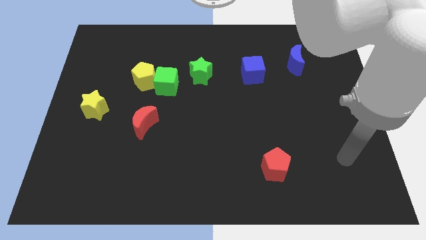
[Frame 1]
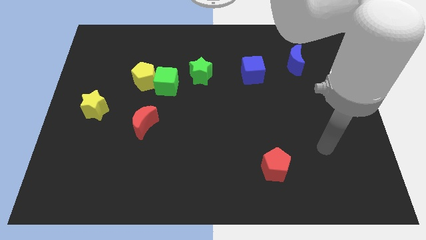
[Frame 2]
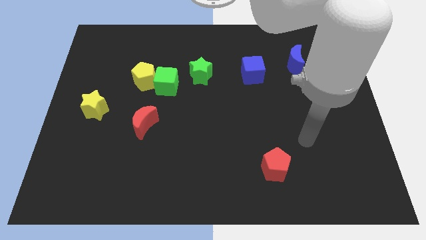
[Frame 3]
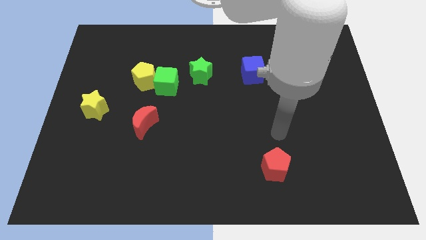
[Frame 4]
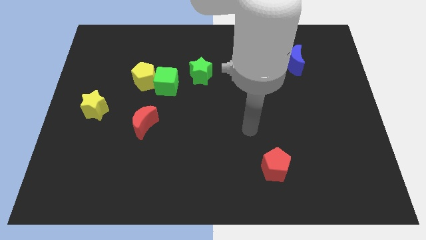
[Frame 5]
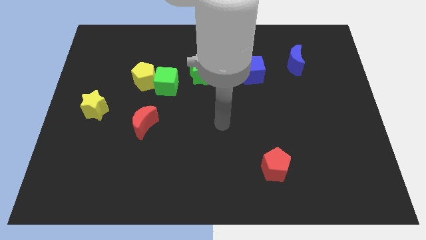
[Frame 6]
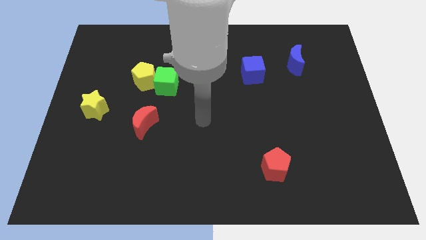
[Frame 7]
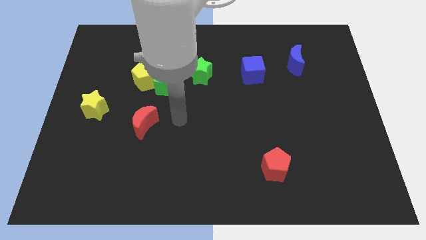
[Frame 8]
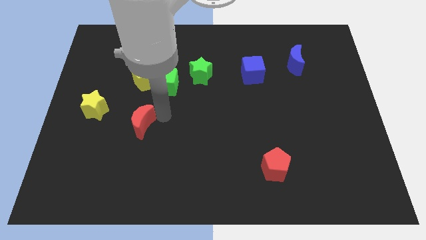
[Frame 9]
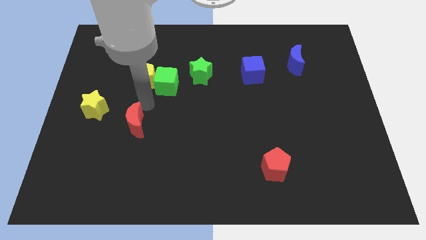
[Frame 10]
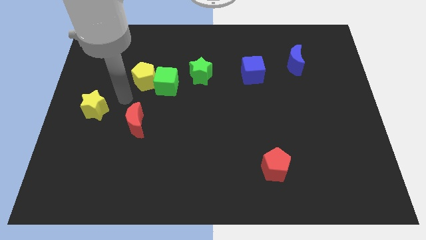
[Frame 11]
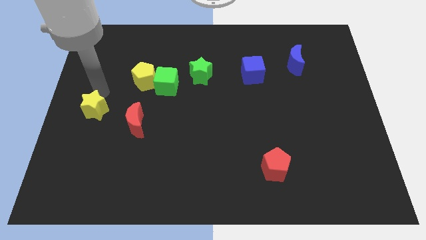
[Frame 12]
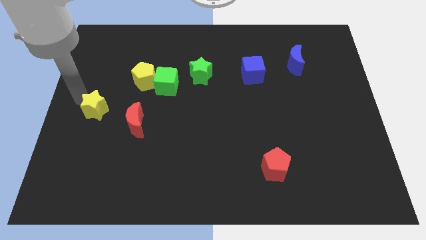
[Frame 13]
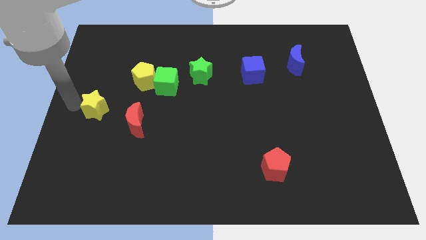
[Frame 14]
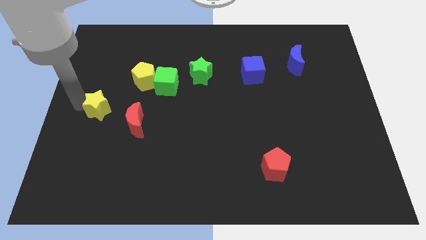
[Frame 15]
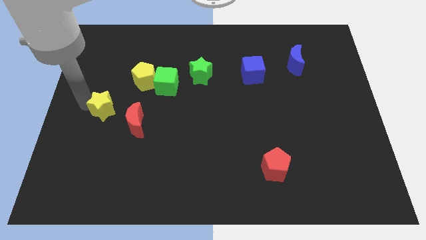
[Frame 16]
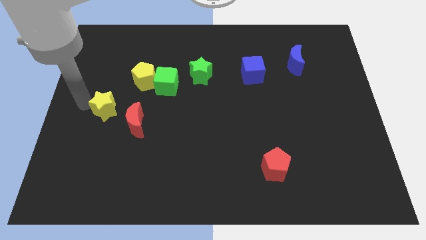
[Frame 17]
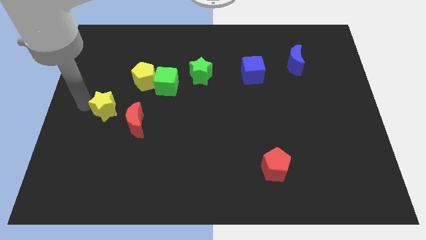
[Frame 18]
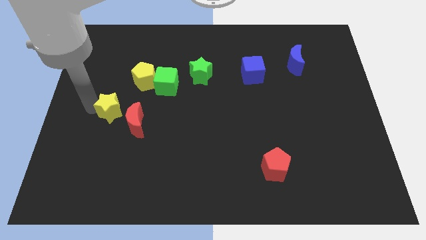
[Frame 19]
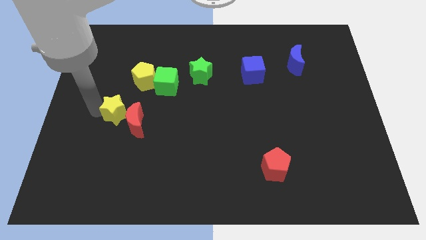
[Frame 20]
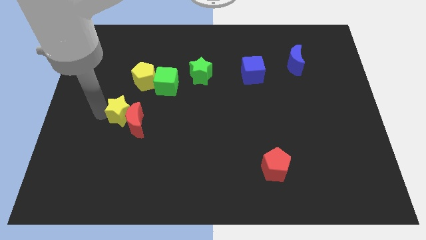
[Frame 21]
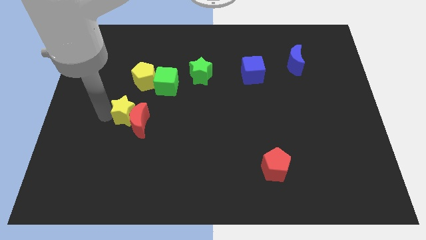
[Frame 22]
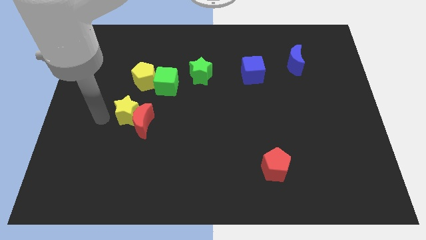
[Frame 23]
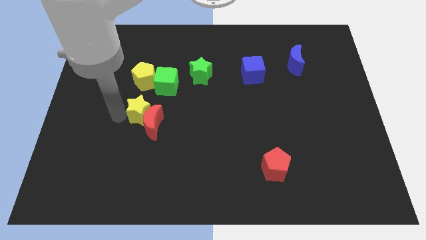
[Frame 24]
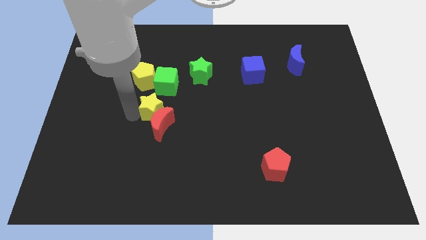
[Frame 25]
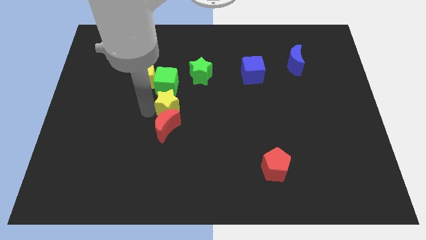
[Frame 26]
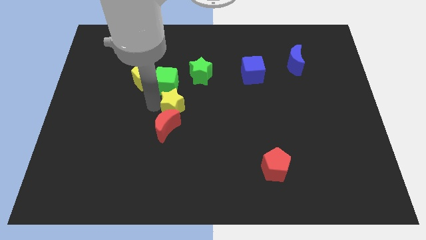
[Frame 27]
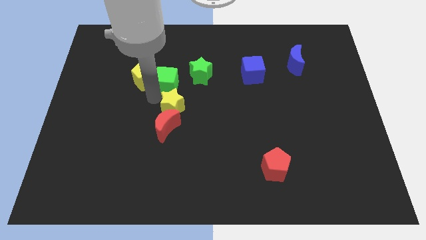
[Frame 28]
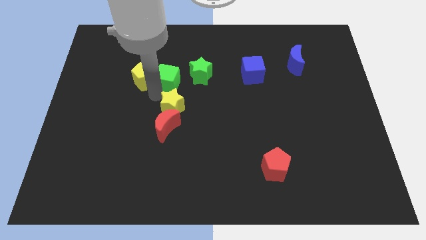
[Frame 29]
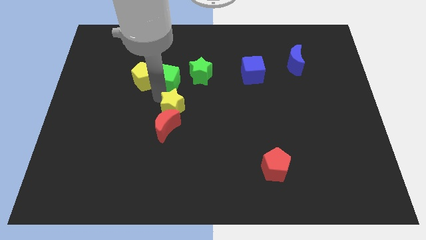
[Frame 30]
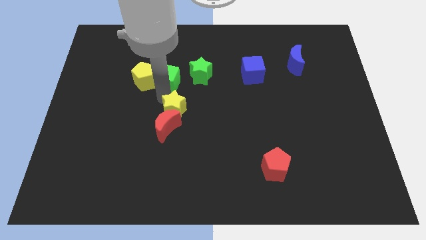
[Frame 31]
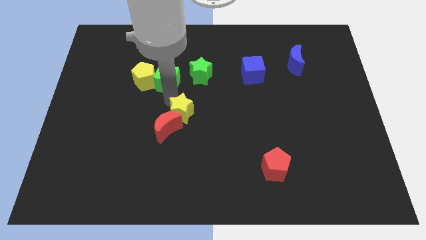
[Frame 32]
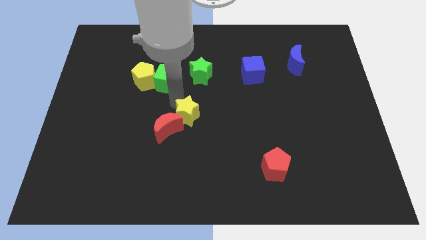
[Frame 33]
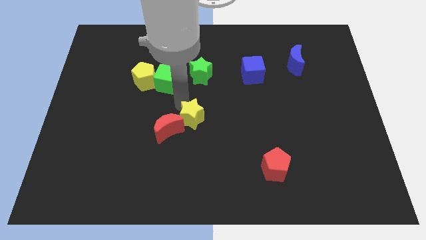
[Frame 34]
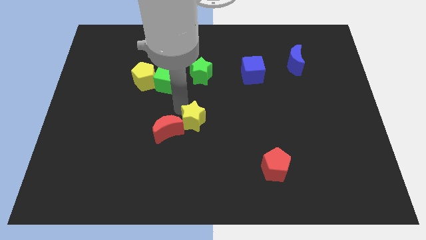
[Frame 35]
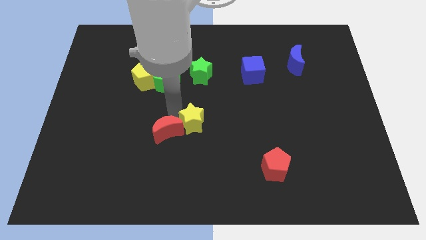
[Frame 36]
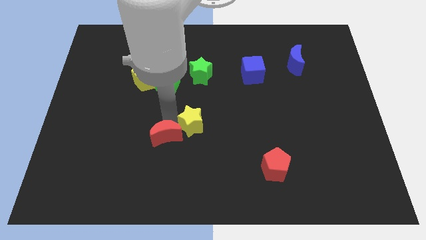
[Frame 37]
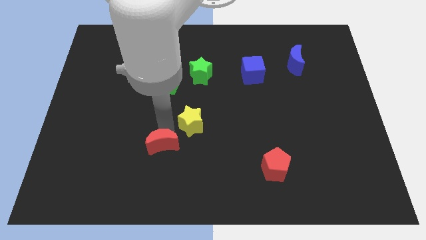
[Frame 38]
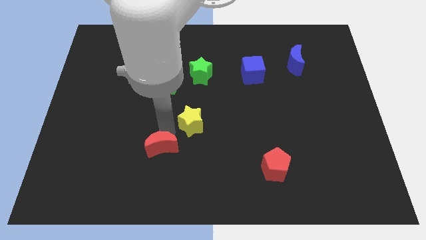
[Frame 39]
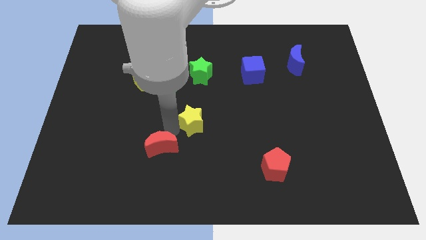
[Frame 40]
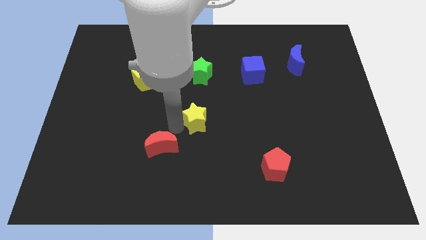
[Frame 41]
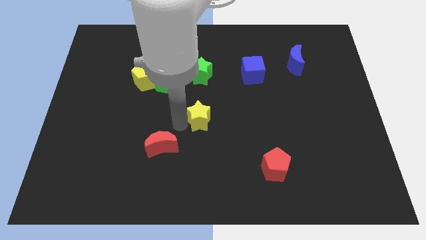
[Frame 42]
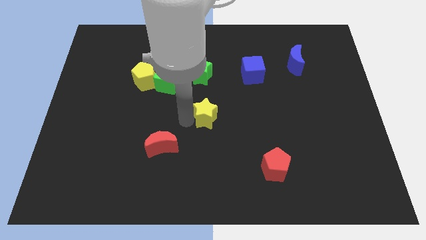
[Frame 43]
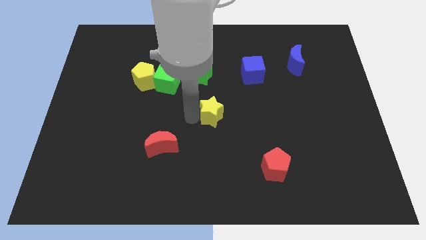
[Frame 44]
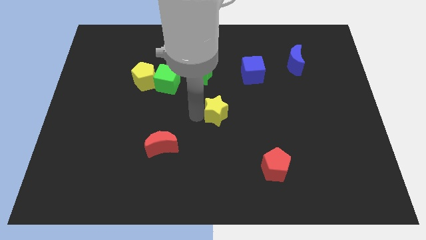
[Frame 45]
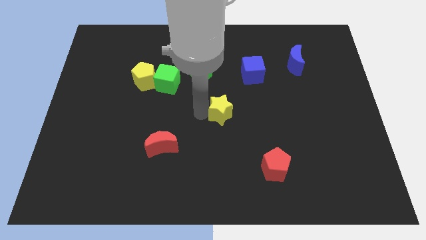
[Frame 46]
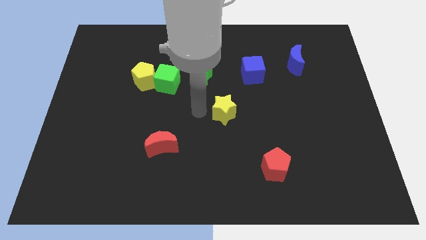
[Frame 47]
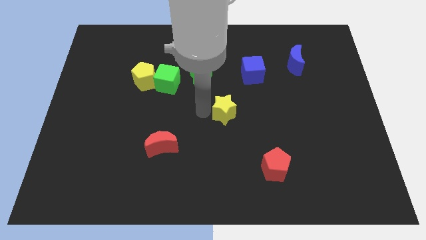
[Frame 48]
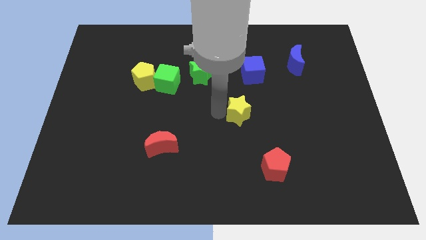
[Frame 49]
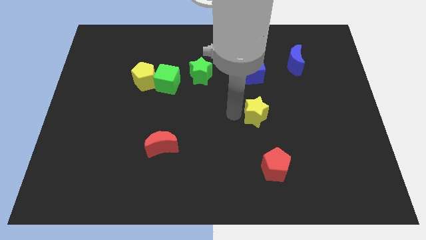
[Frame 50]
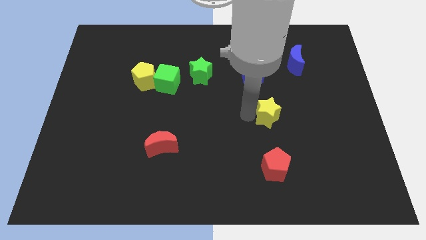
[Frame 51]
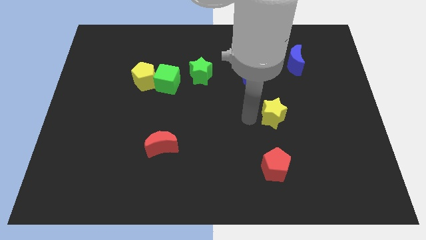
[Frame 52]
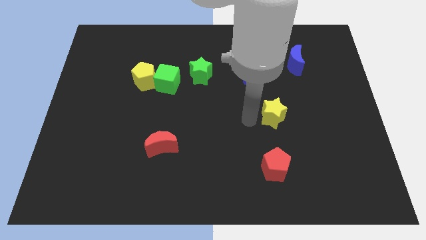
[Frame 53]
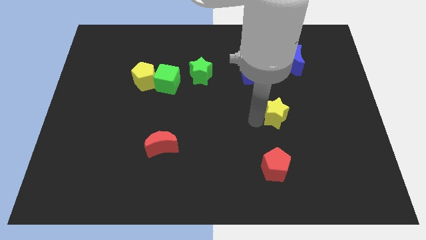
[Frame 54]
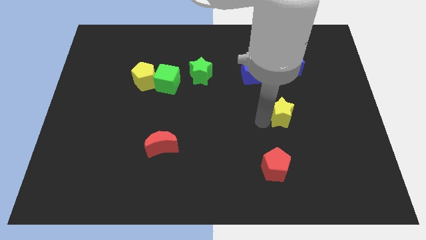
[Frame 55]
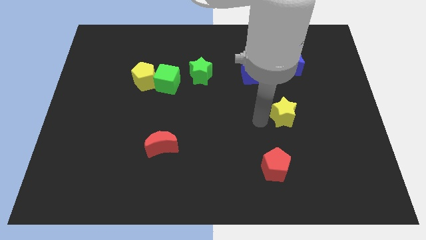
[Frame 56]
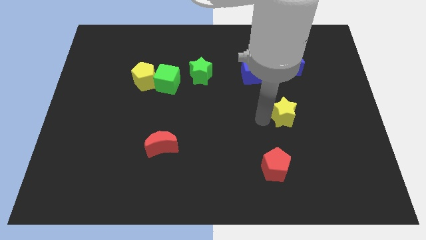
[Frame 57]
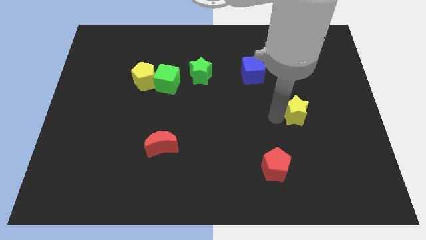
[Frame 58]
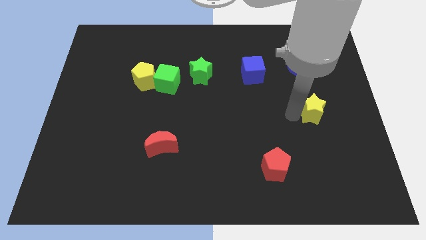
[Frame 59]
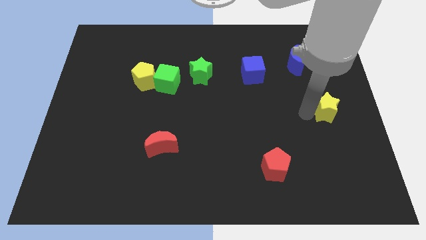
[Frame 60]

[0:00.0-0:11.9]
push the yellow star to the right side

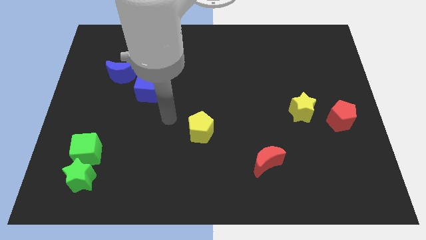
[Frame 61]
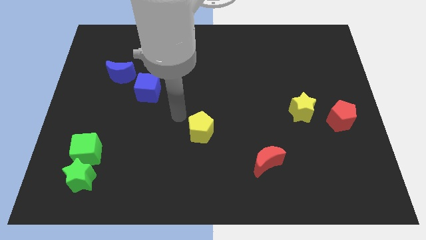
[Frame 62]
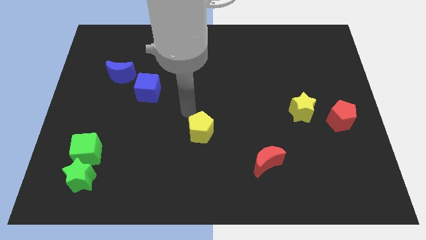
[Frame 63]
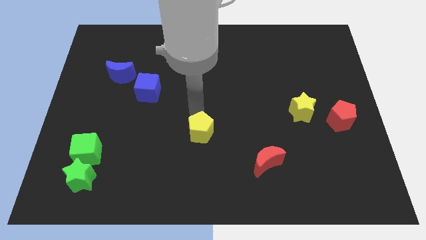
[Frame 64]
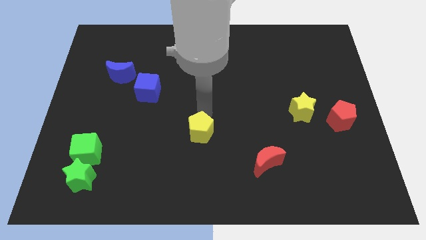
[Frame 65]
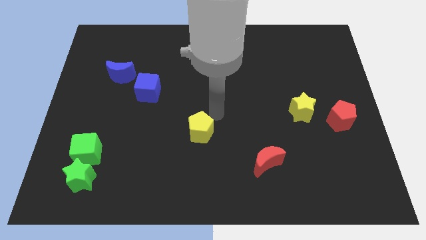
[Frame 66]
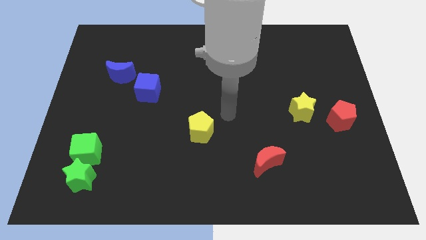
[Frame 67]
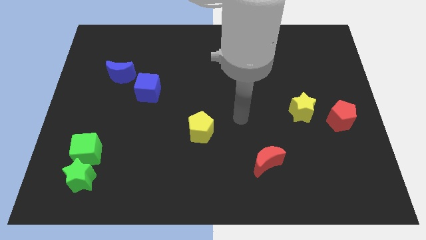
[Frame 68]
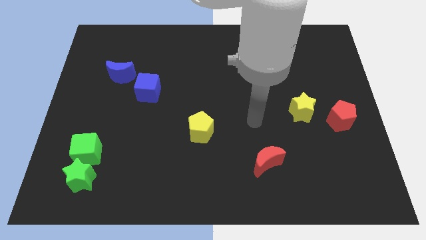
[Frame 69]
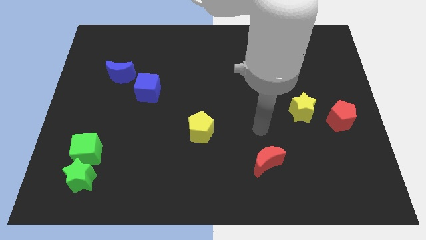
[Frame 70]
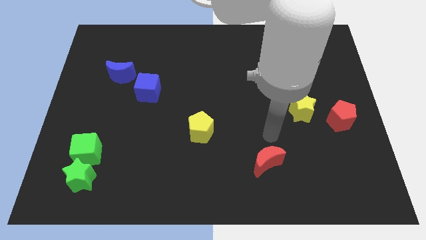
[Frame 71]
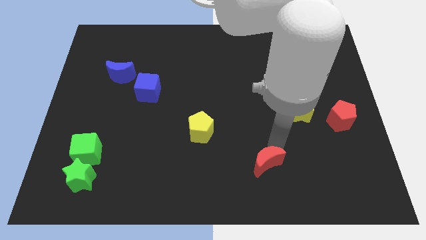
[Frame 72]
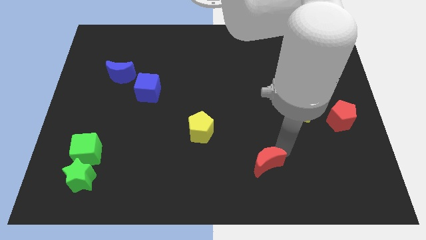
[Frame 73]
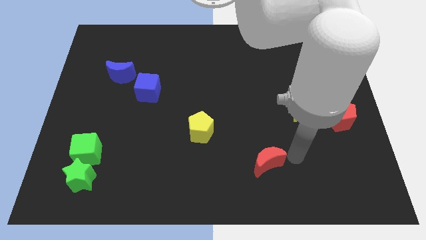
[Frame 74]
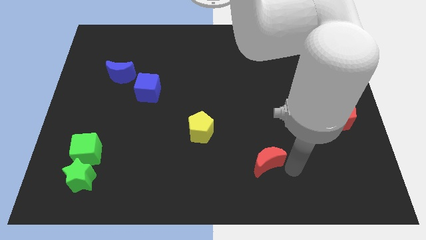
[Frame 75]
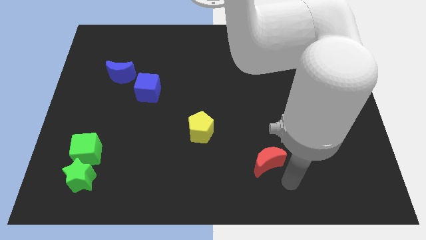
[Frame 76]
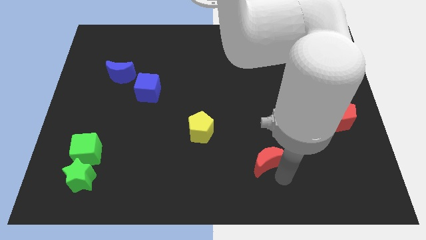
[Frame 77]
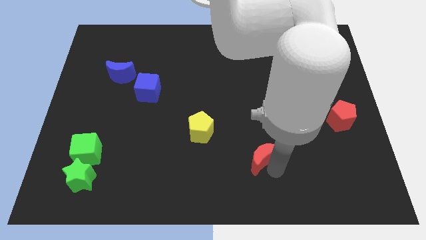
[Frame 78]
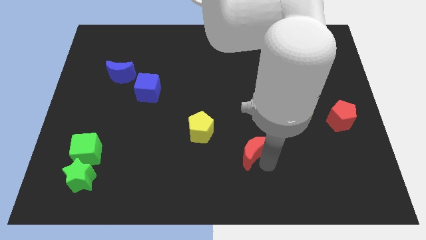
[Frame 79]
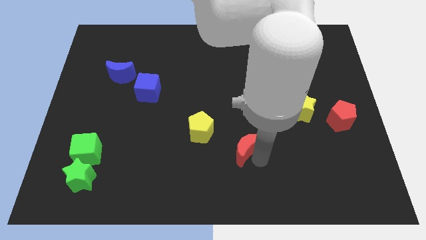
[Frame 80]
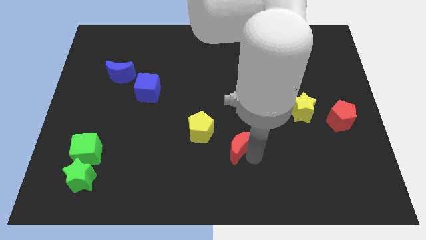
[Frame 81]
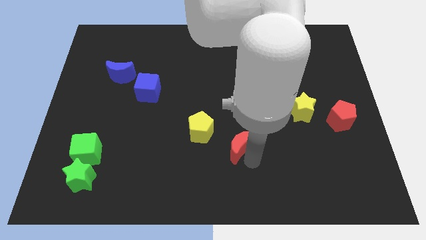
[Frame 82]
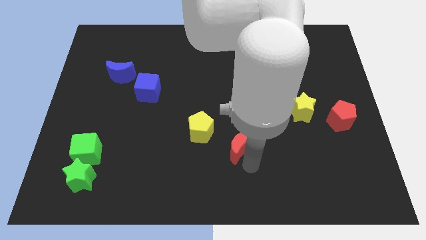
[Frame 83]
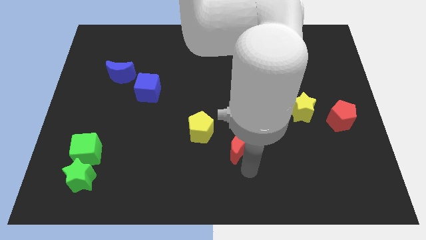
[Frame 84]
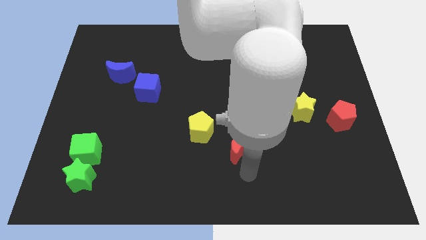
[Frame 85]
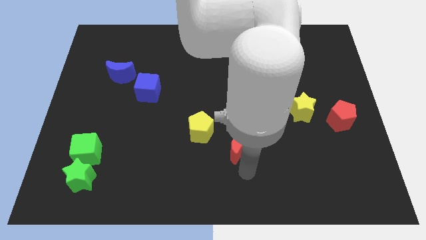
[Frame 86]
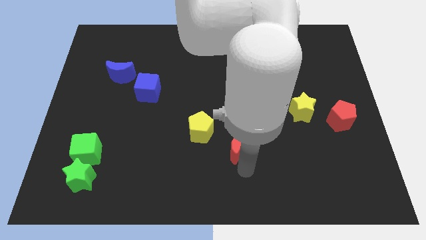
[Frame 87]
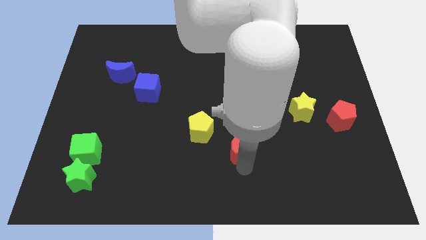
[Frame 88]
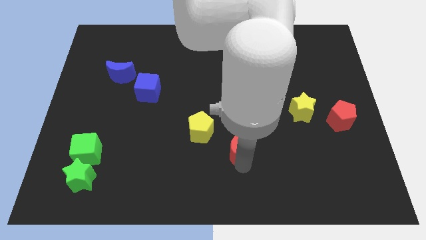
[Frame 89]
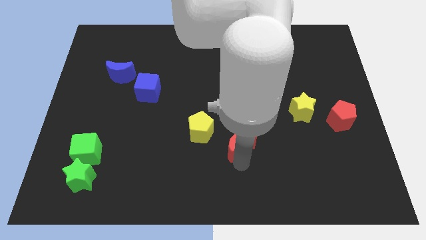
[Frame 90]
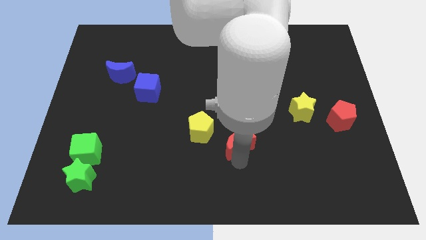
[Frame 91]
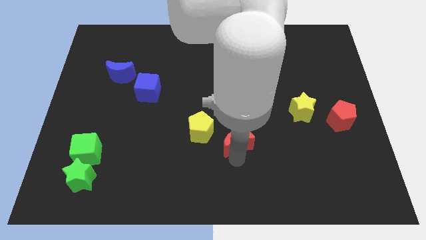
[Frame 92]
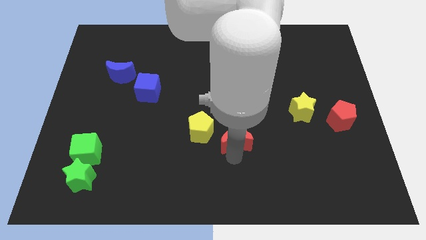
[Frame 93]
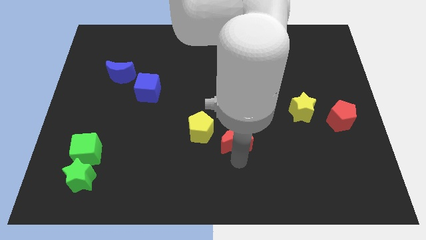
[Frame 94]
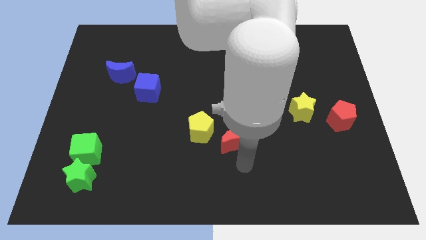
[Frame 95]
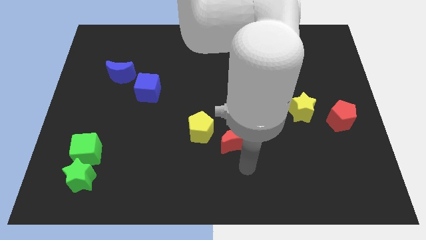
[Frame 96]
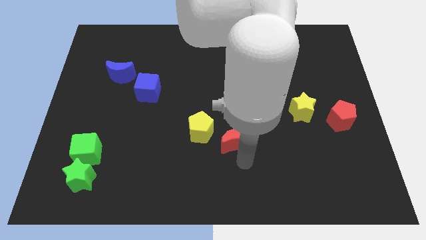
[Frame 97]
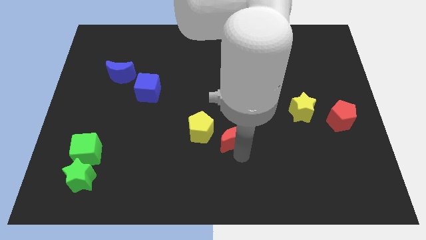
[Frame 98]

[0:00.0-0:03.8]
push the red moon to the center of the board
